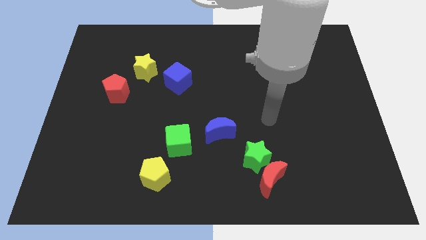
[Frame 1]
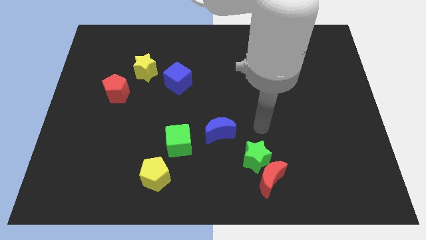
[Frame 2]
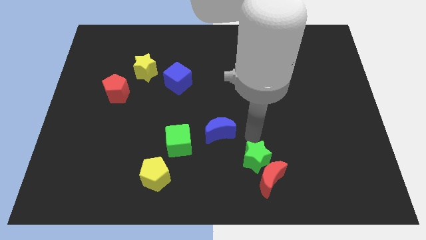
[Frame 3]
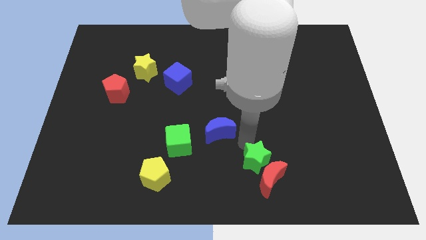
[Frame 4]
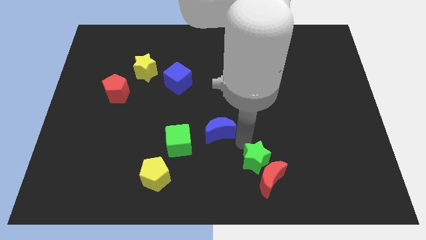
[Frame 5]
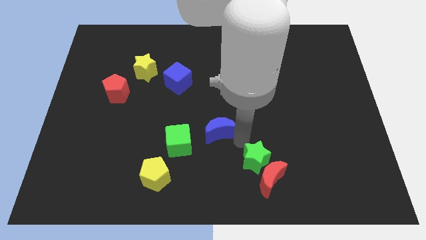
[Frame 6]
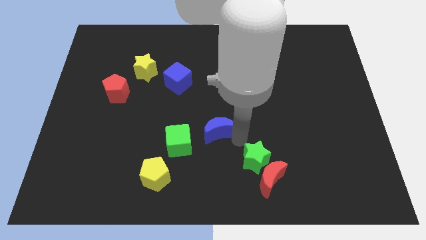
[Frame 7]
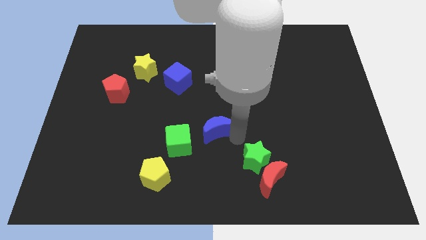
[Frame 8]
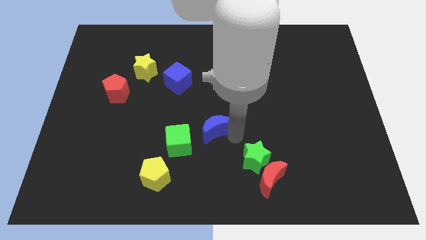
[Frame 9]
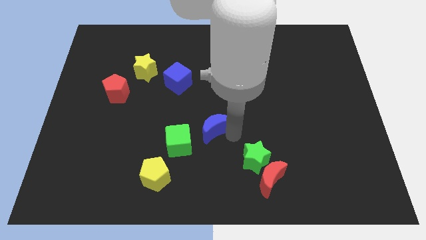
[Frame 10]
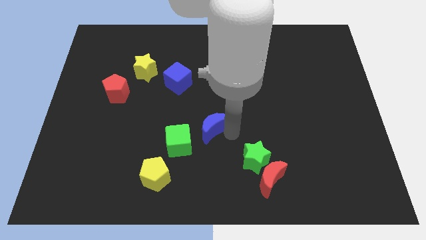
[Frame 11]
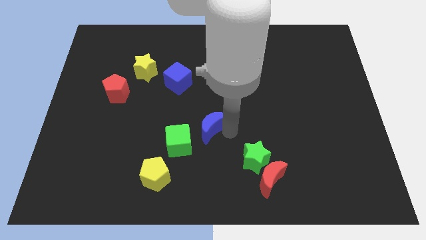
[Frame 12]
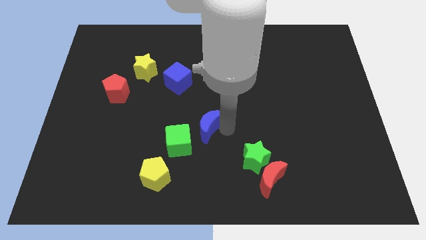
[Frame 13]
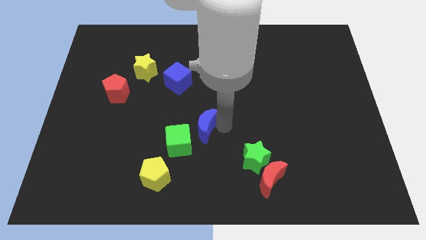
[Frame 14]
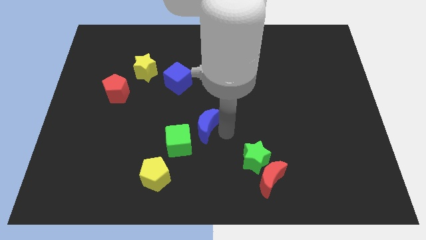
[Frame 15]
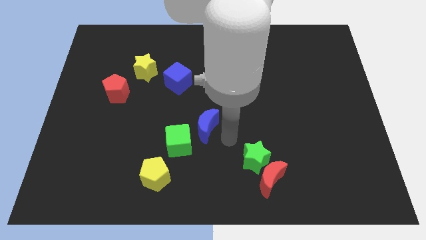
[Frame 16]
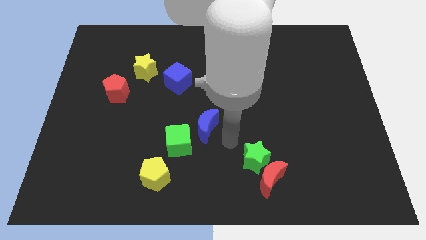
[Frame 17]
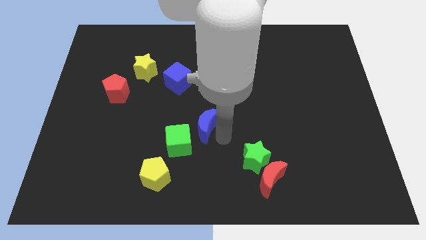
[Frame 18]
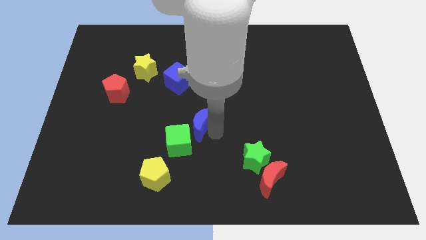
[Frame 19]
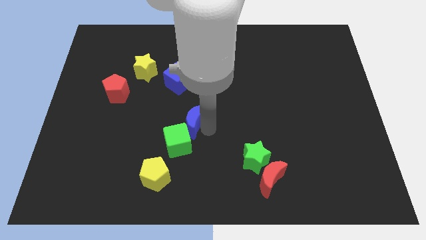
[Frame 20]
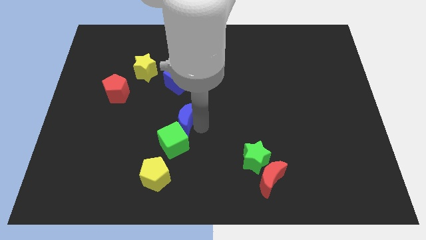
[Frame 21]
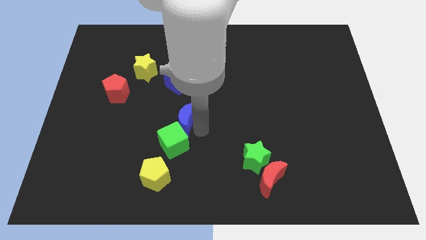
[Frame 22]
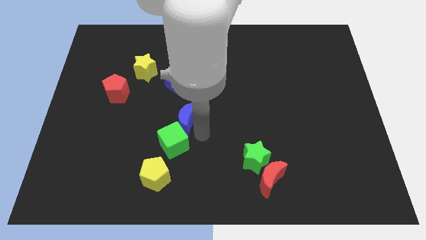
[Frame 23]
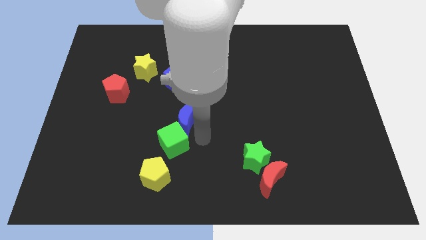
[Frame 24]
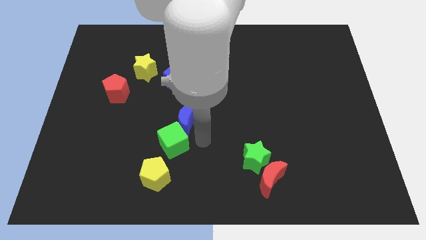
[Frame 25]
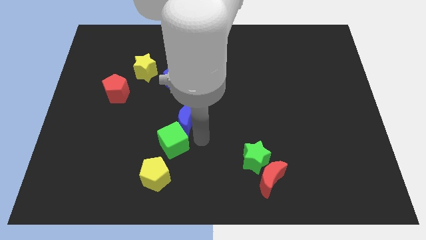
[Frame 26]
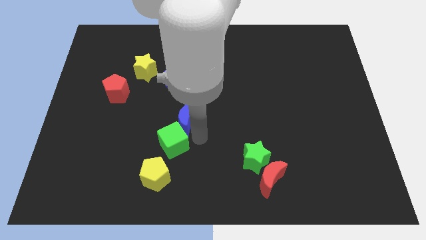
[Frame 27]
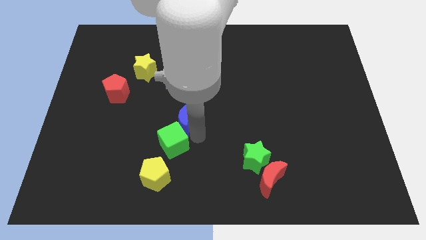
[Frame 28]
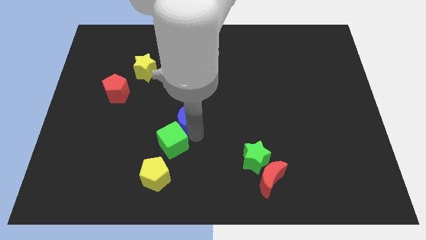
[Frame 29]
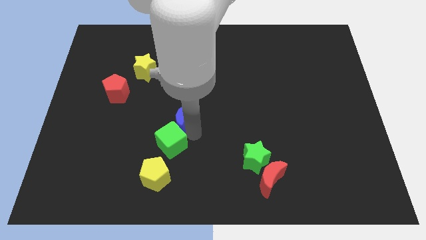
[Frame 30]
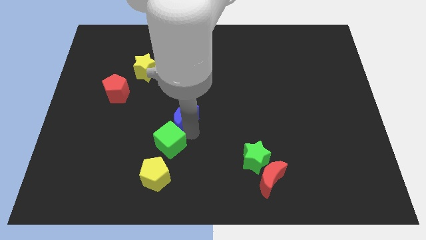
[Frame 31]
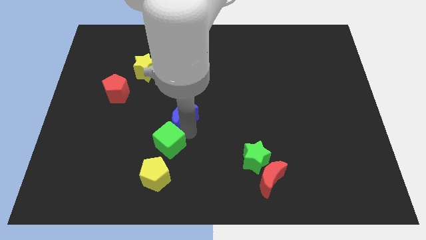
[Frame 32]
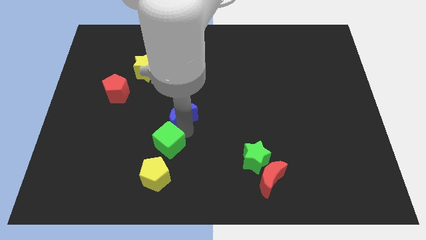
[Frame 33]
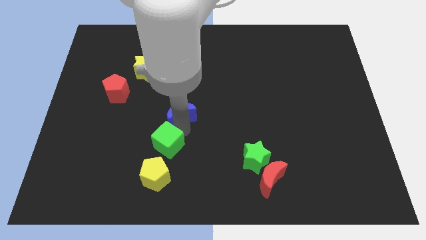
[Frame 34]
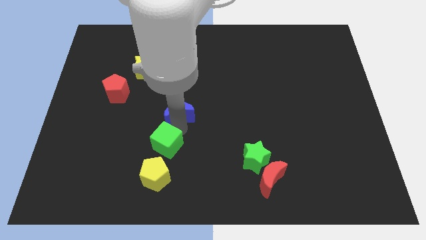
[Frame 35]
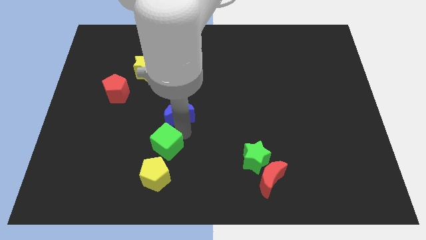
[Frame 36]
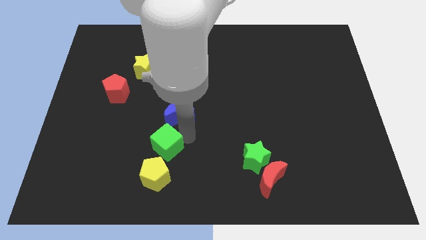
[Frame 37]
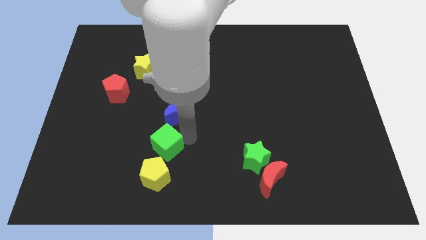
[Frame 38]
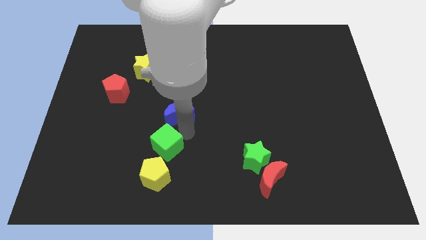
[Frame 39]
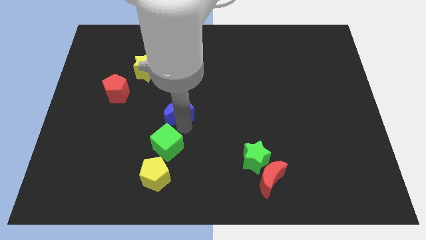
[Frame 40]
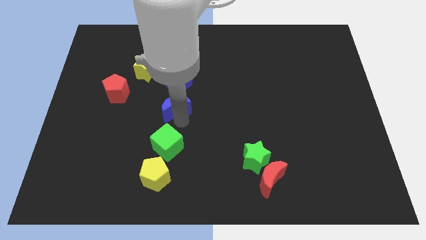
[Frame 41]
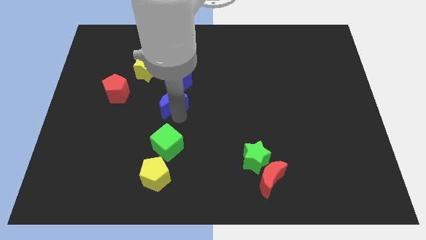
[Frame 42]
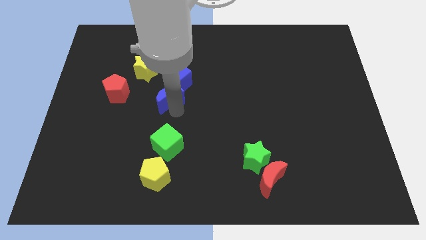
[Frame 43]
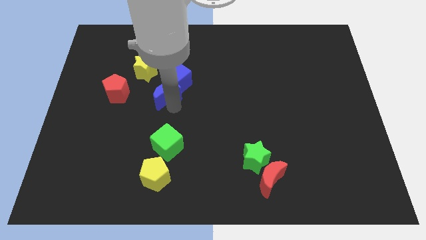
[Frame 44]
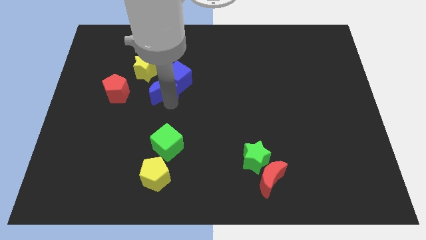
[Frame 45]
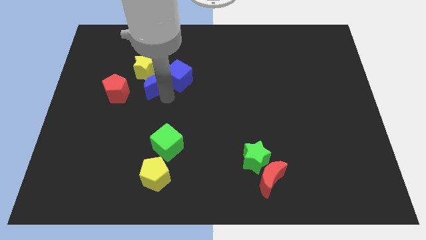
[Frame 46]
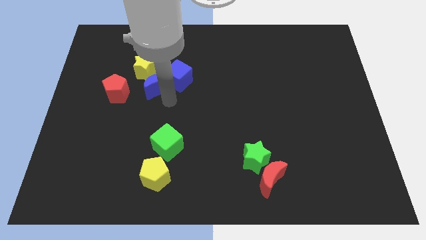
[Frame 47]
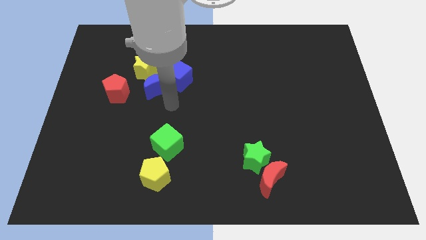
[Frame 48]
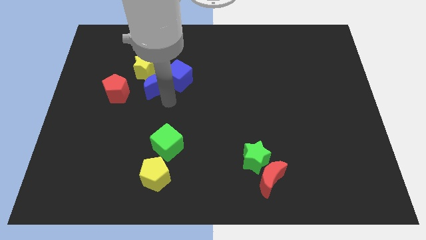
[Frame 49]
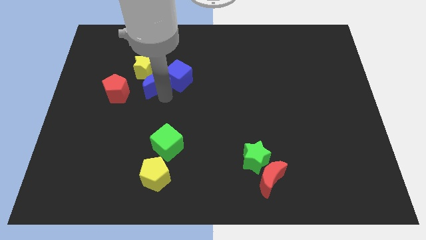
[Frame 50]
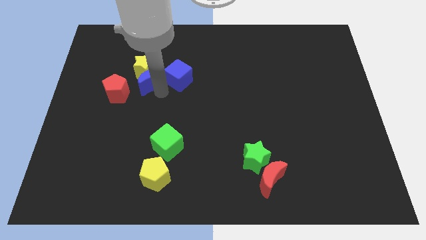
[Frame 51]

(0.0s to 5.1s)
push the blue moon towards the yellow star

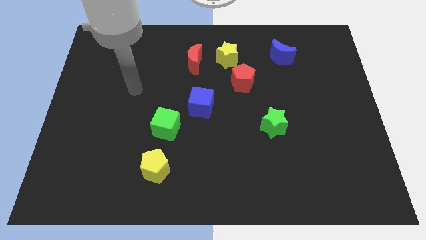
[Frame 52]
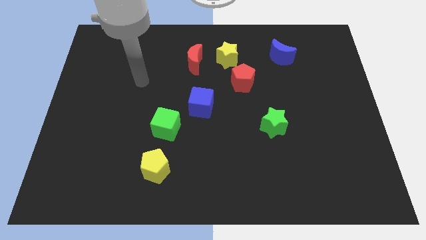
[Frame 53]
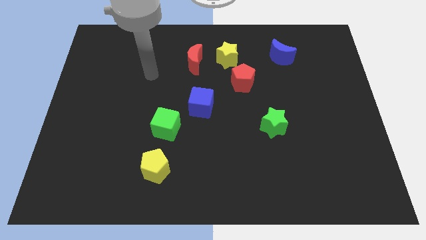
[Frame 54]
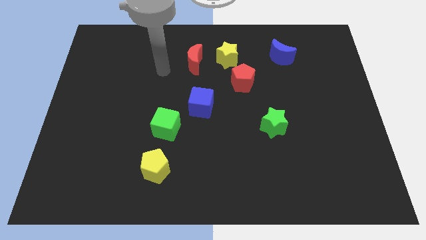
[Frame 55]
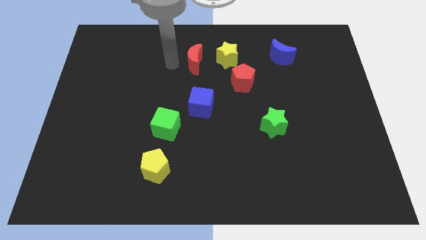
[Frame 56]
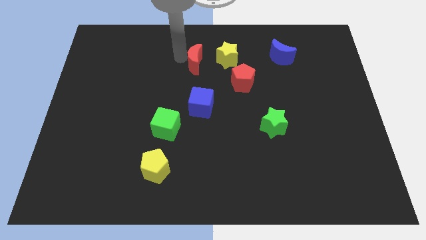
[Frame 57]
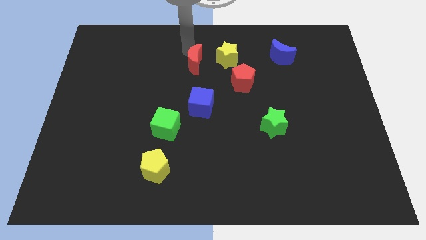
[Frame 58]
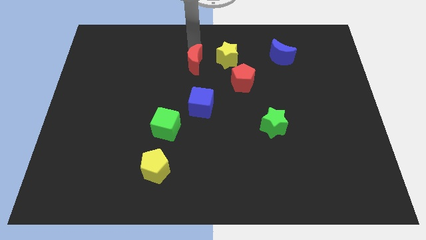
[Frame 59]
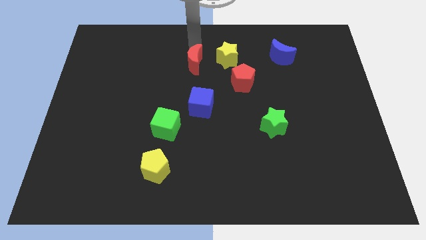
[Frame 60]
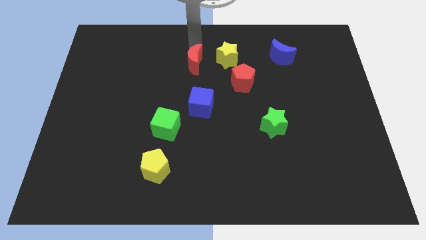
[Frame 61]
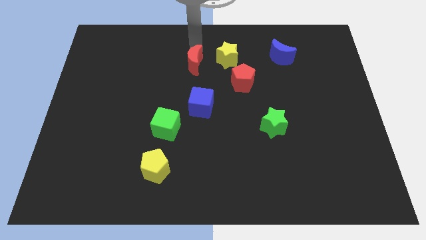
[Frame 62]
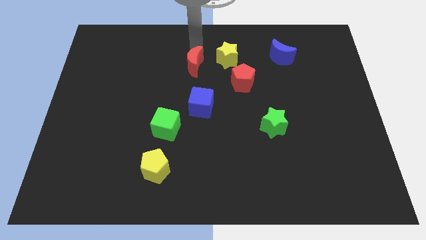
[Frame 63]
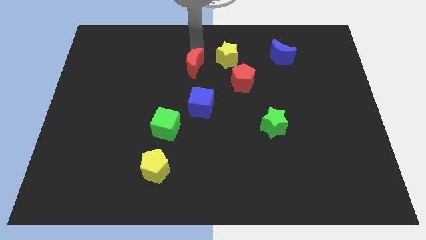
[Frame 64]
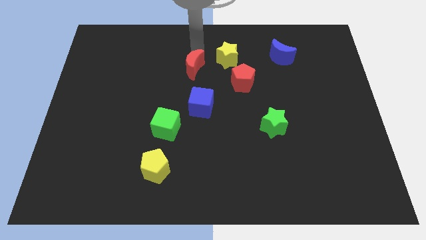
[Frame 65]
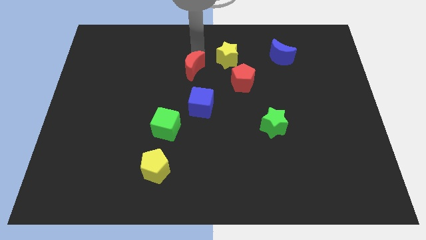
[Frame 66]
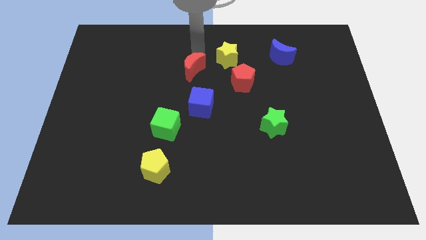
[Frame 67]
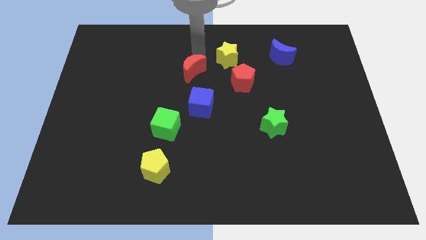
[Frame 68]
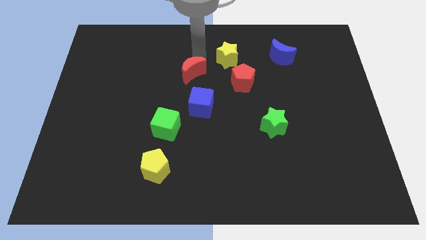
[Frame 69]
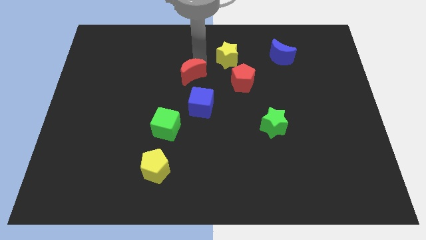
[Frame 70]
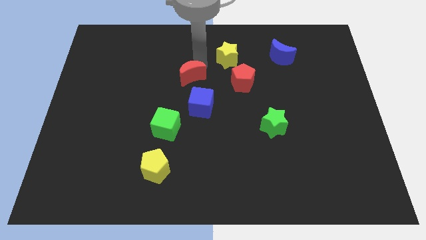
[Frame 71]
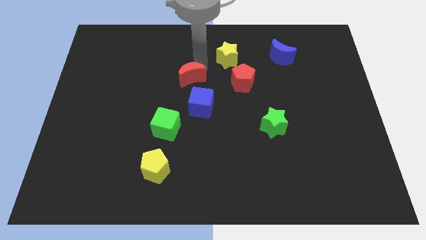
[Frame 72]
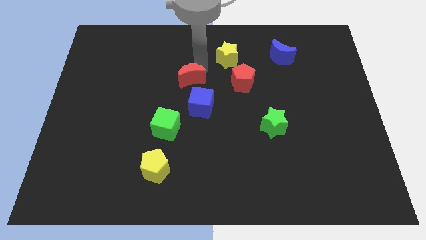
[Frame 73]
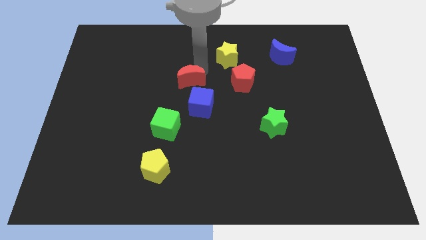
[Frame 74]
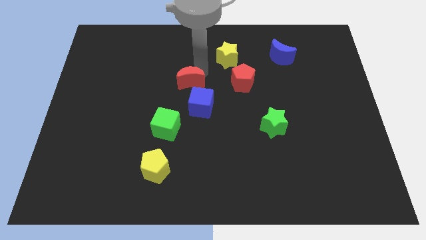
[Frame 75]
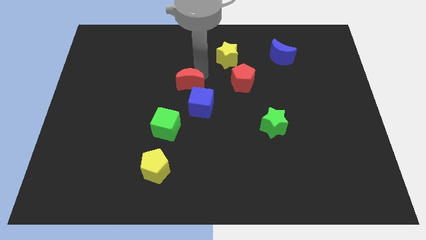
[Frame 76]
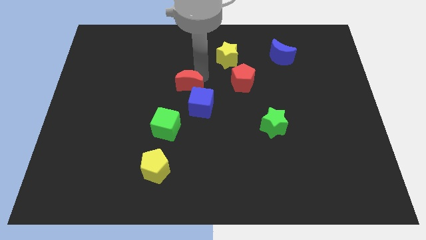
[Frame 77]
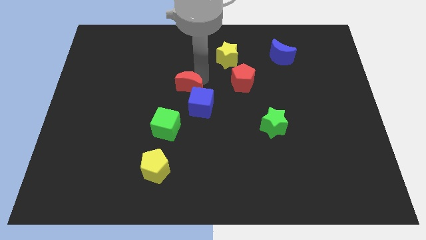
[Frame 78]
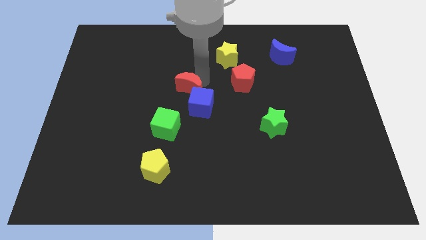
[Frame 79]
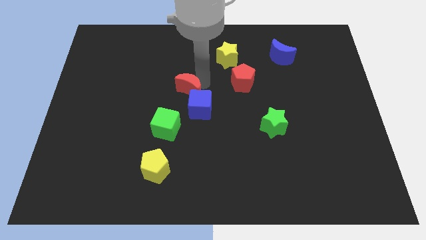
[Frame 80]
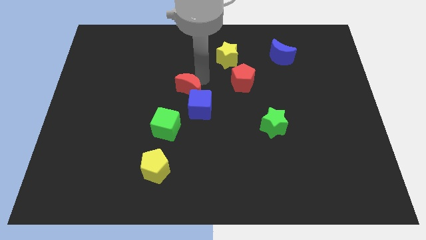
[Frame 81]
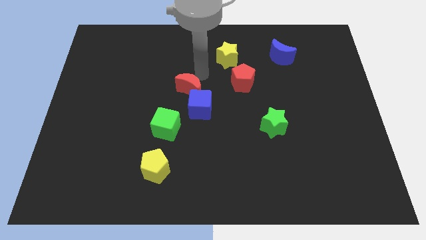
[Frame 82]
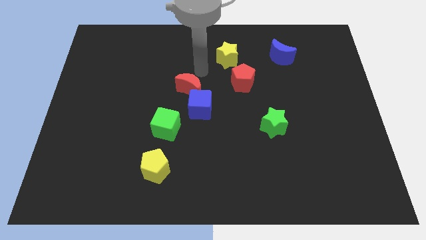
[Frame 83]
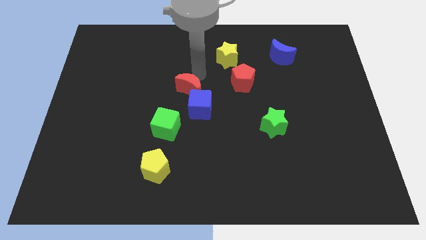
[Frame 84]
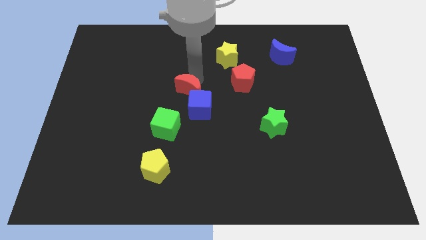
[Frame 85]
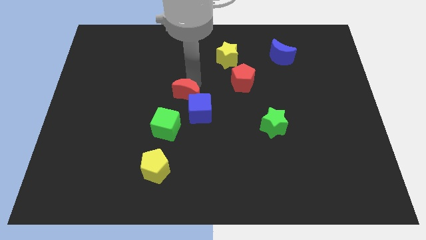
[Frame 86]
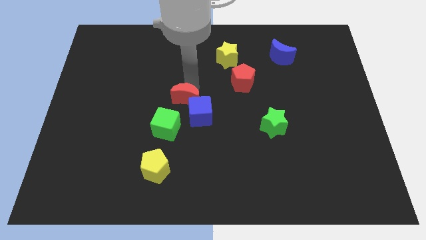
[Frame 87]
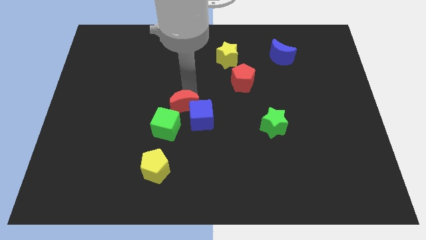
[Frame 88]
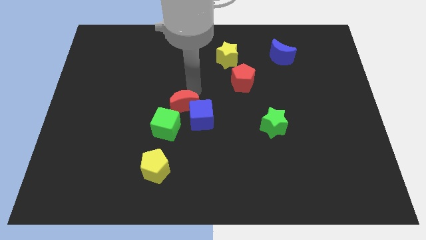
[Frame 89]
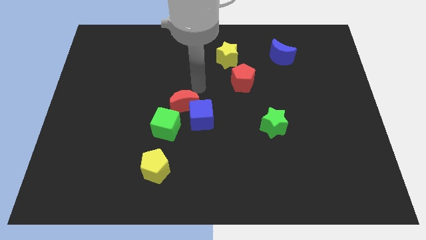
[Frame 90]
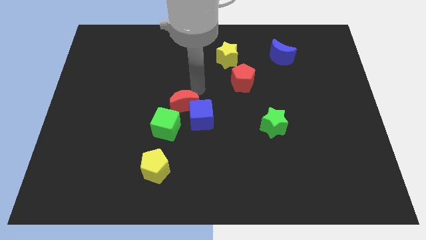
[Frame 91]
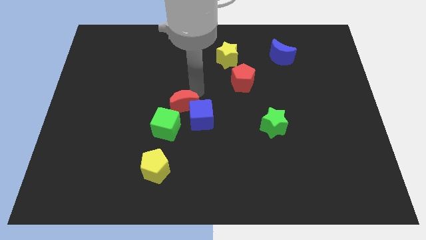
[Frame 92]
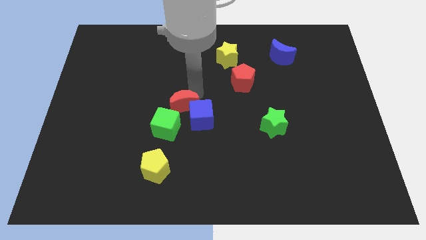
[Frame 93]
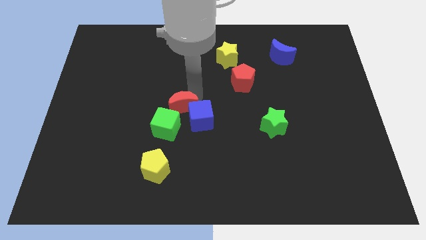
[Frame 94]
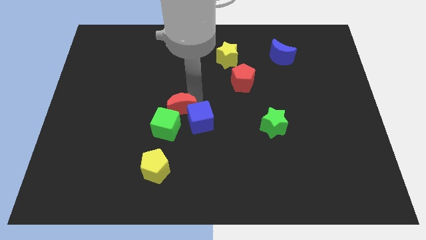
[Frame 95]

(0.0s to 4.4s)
move the red moon towards the green cube
